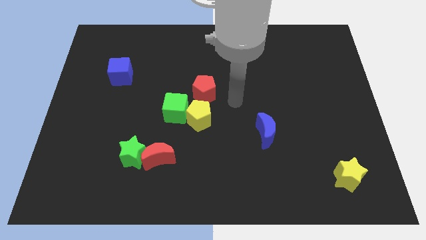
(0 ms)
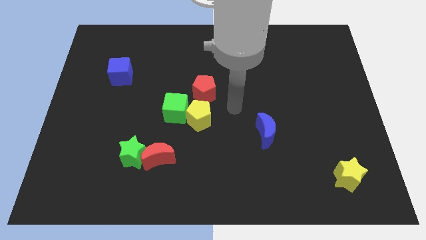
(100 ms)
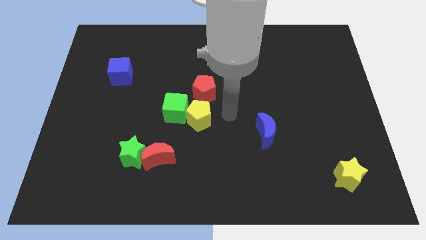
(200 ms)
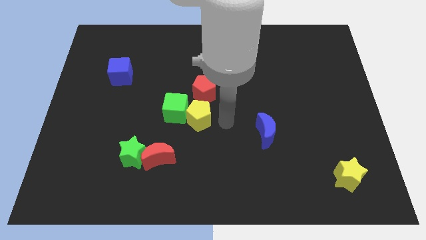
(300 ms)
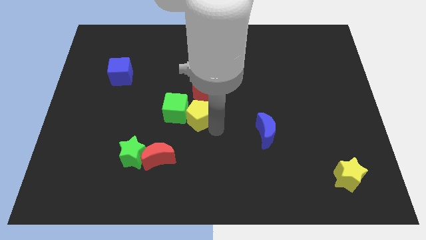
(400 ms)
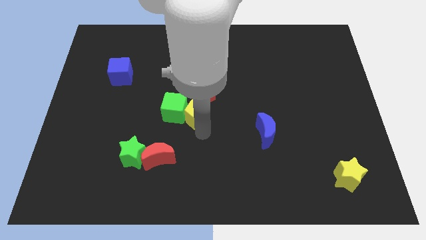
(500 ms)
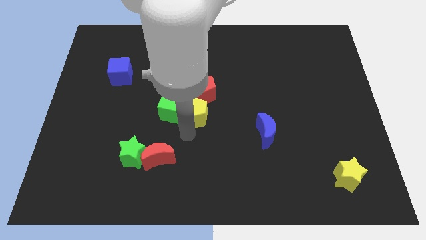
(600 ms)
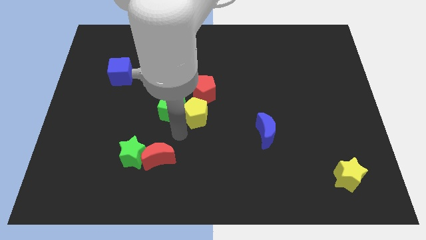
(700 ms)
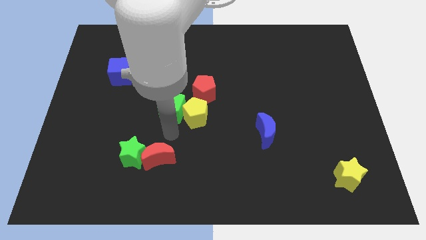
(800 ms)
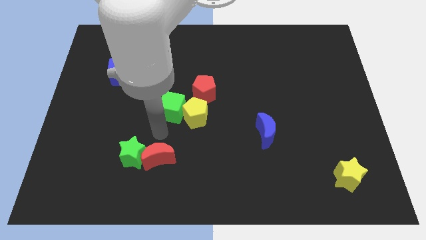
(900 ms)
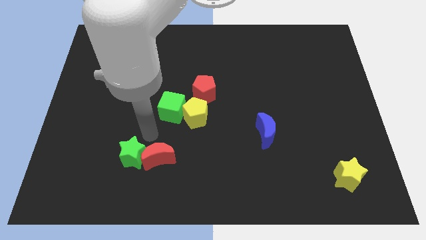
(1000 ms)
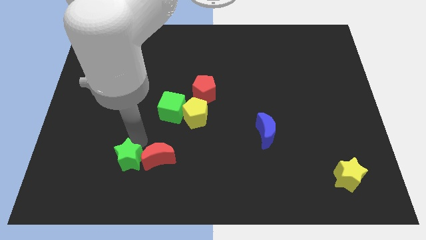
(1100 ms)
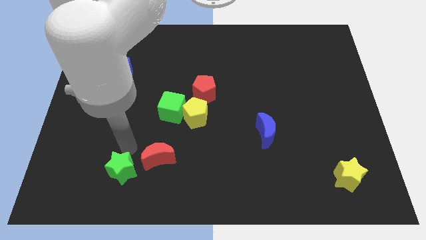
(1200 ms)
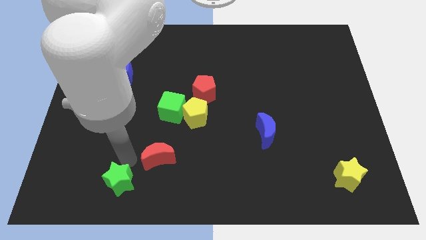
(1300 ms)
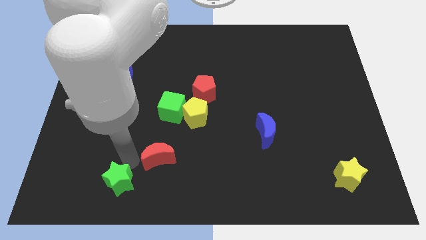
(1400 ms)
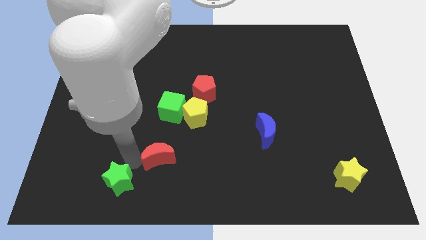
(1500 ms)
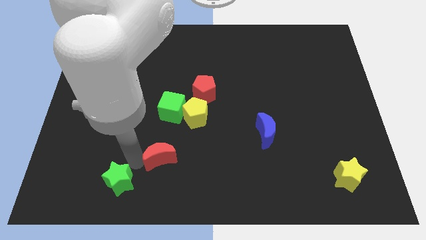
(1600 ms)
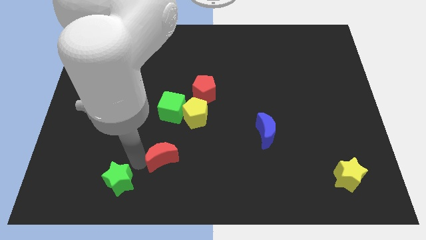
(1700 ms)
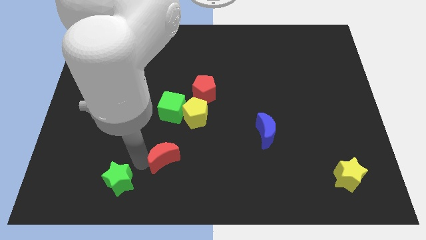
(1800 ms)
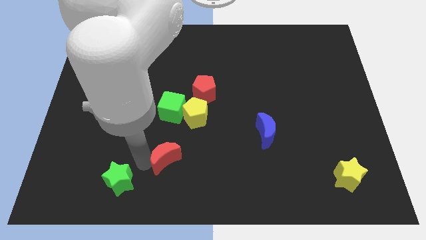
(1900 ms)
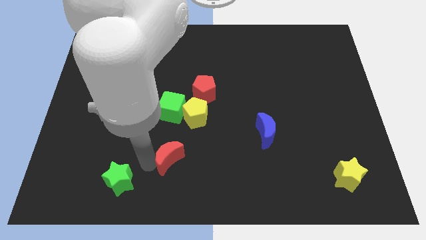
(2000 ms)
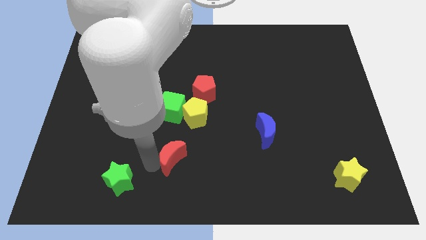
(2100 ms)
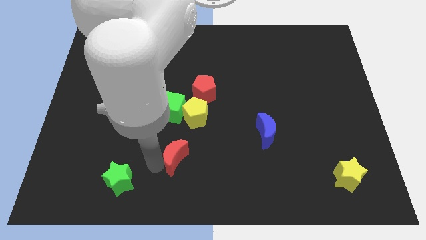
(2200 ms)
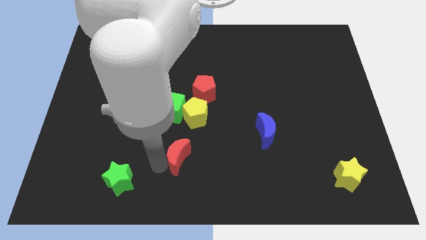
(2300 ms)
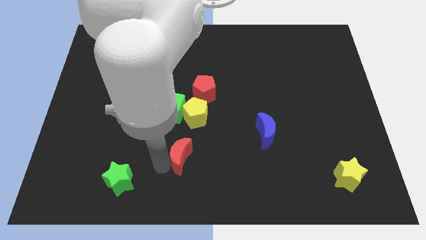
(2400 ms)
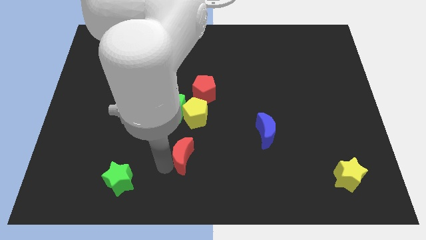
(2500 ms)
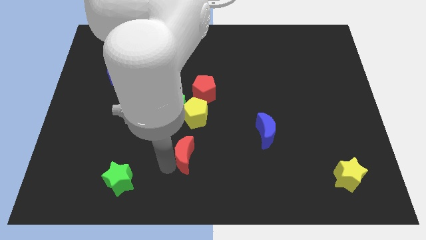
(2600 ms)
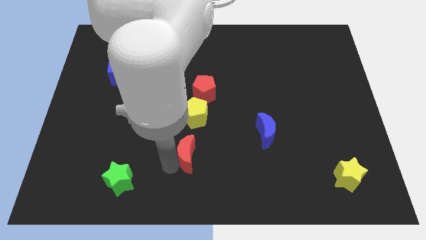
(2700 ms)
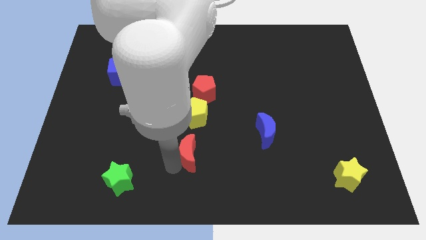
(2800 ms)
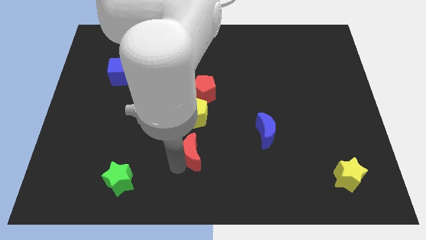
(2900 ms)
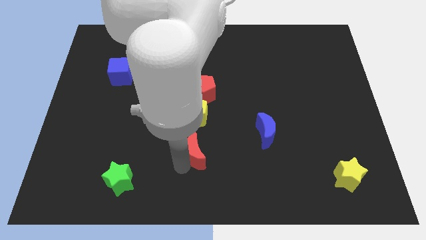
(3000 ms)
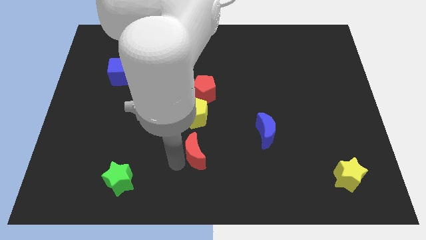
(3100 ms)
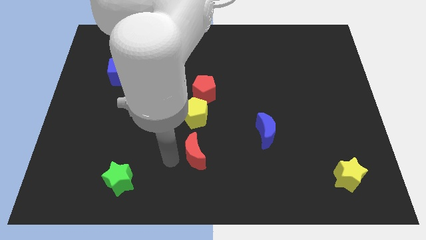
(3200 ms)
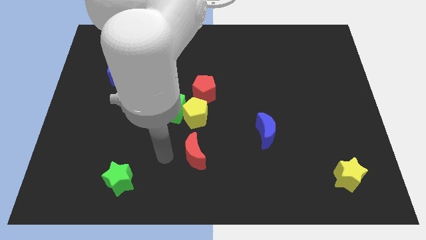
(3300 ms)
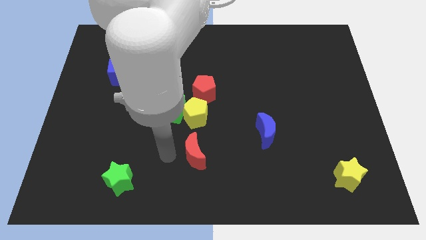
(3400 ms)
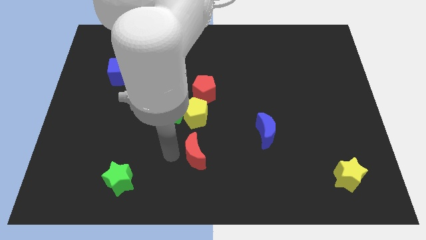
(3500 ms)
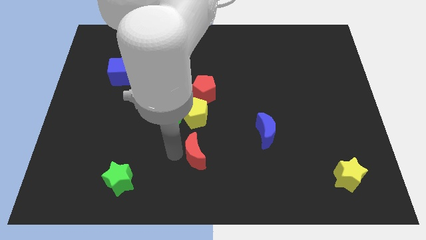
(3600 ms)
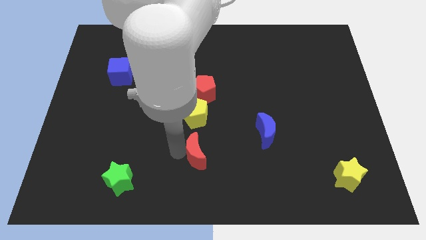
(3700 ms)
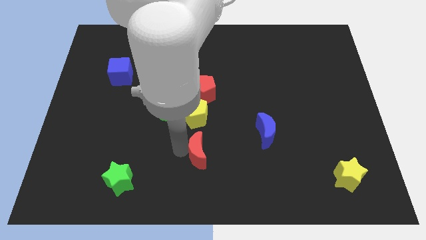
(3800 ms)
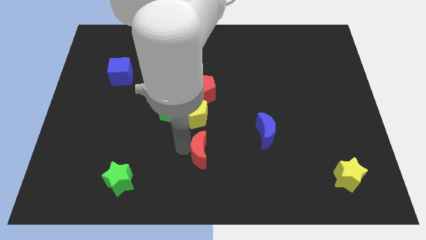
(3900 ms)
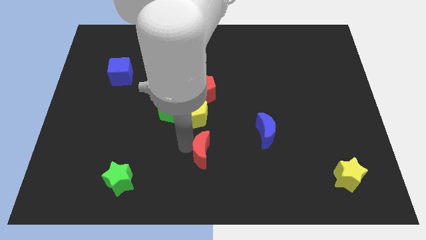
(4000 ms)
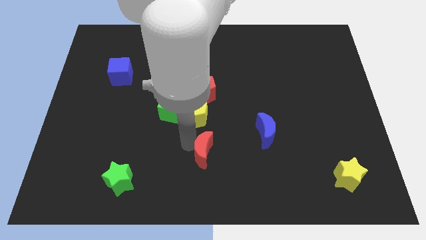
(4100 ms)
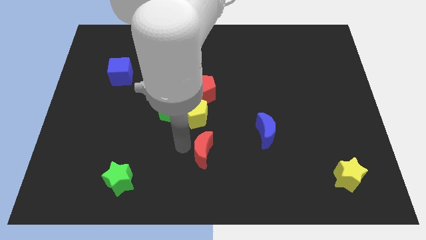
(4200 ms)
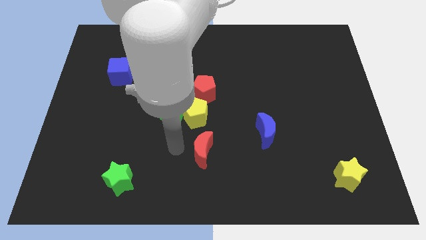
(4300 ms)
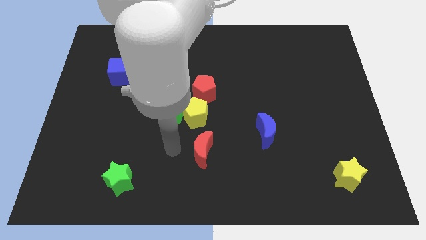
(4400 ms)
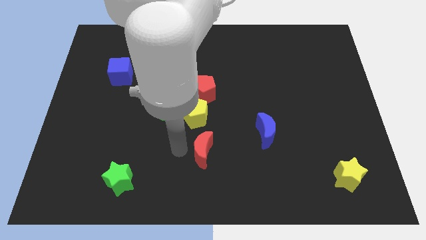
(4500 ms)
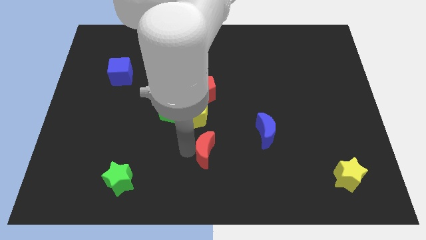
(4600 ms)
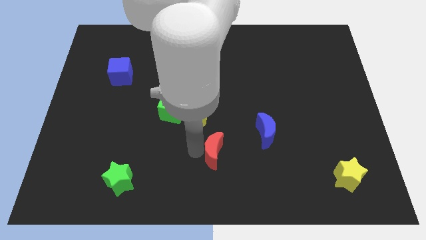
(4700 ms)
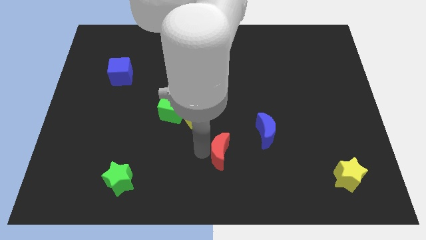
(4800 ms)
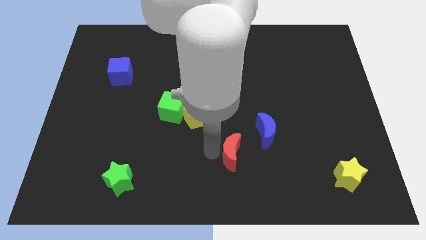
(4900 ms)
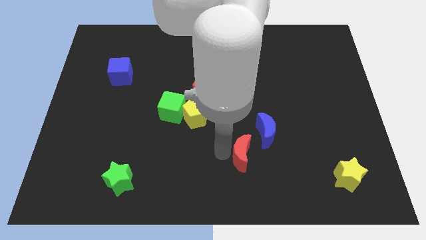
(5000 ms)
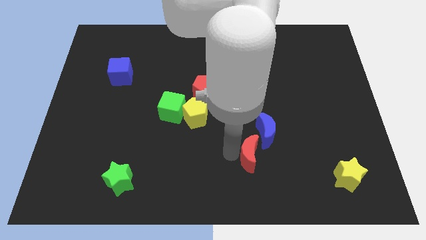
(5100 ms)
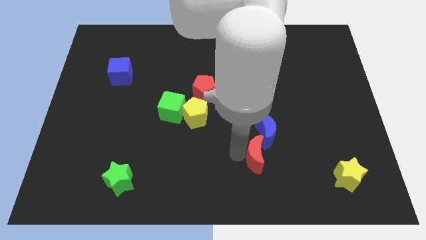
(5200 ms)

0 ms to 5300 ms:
push the red moon right

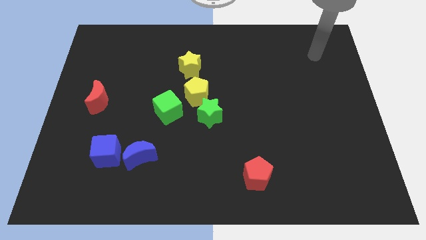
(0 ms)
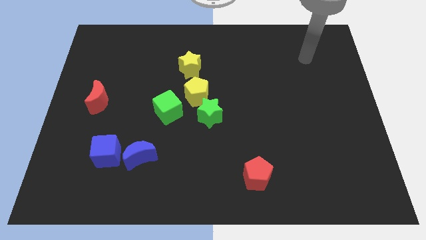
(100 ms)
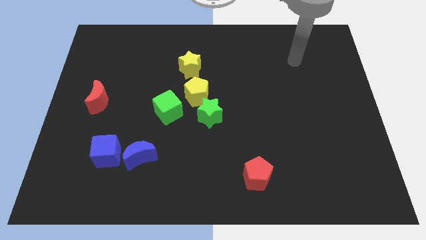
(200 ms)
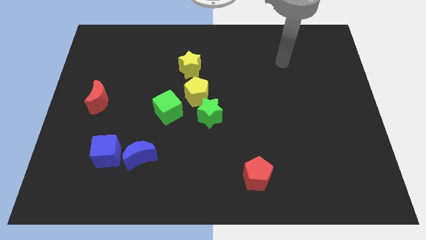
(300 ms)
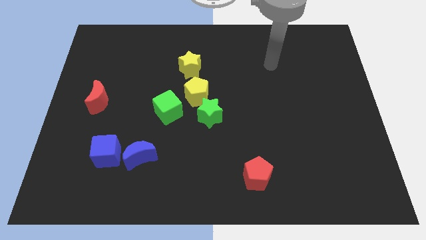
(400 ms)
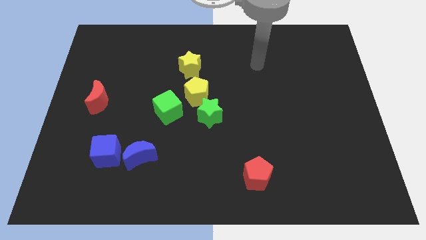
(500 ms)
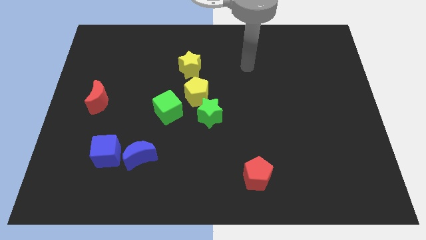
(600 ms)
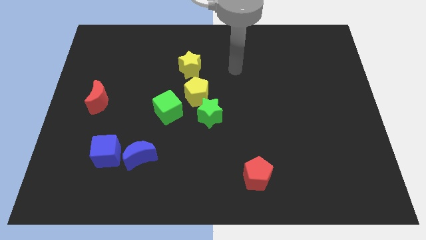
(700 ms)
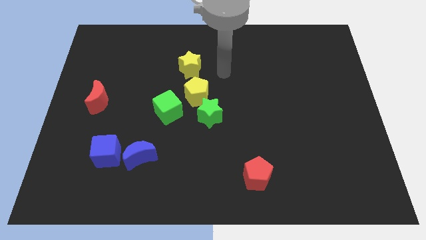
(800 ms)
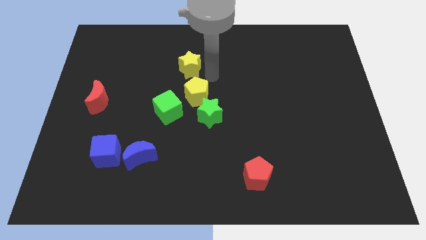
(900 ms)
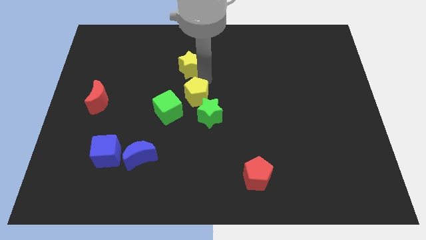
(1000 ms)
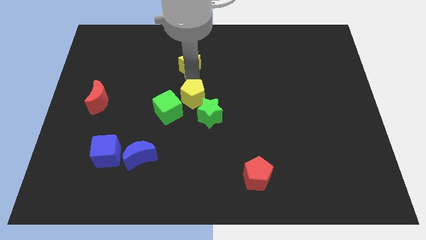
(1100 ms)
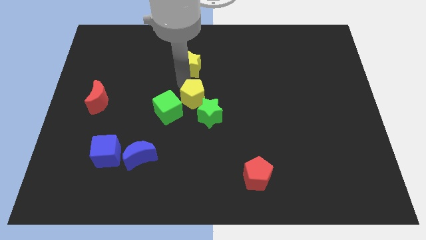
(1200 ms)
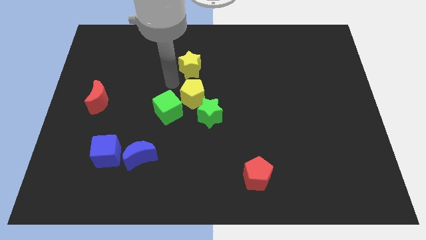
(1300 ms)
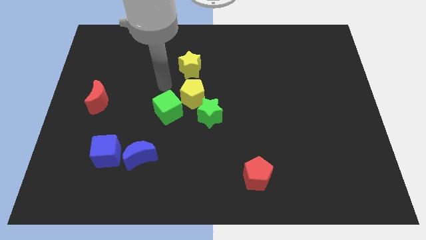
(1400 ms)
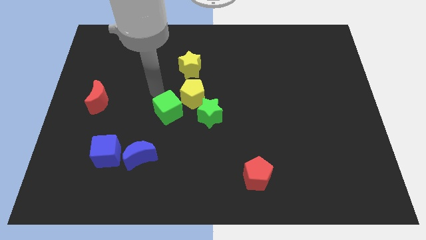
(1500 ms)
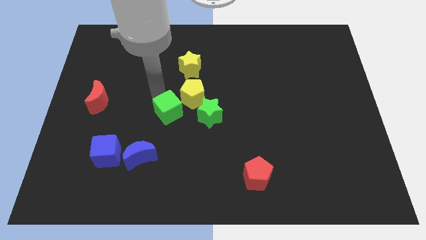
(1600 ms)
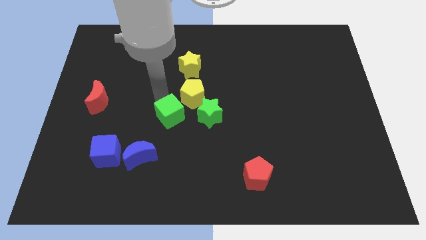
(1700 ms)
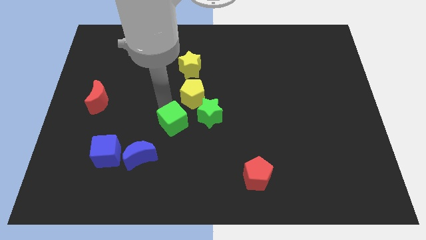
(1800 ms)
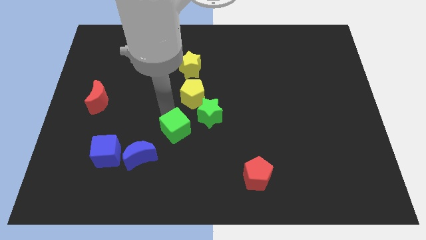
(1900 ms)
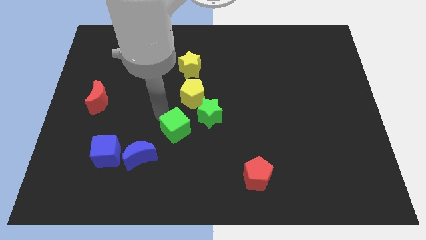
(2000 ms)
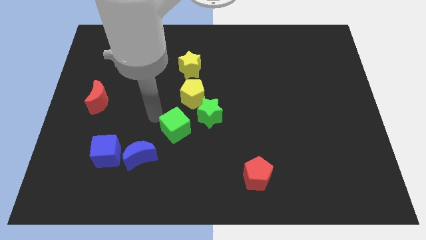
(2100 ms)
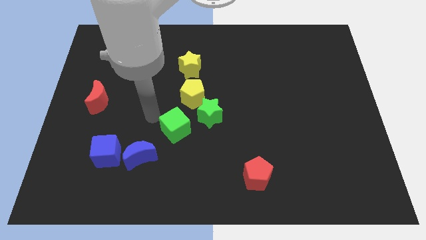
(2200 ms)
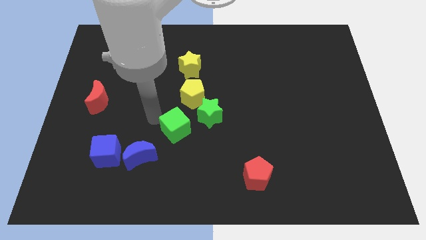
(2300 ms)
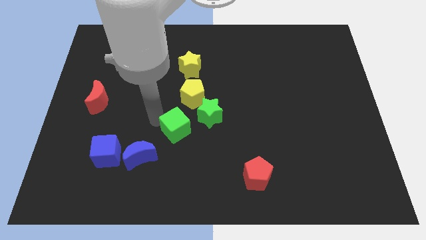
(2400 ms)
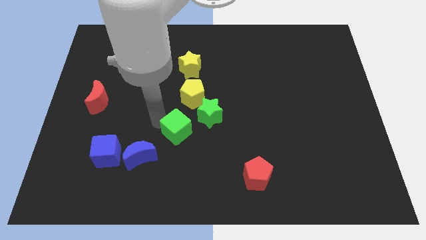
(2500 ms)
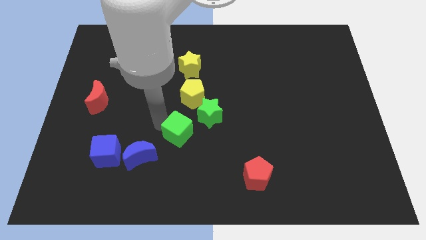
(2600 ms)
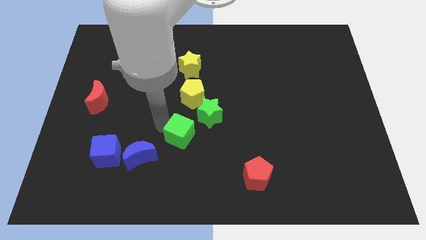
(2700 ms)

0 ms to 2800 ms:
slide the green cube somewhat down and then right

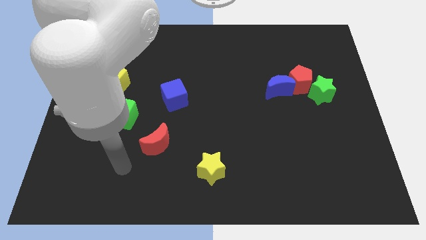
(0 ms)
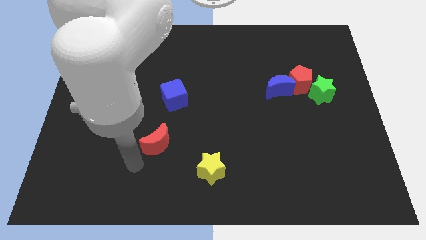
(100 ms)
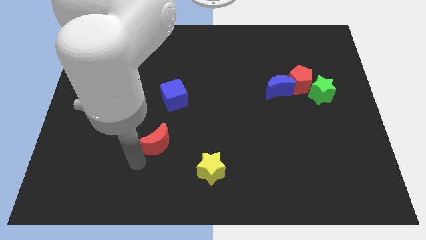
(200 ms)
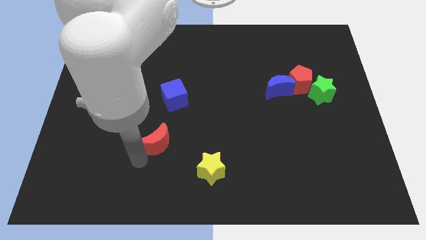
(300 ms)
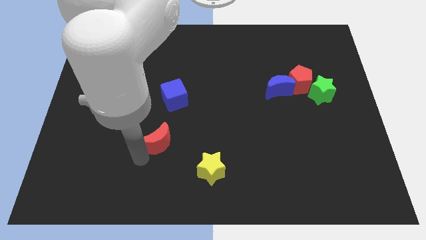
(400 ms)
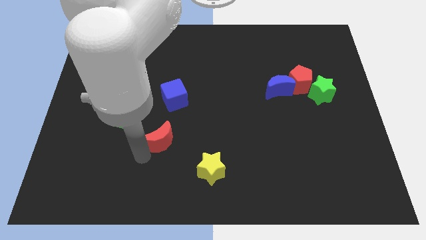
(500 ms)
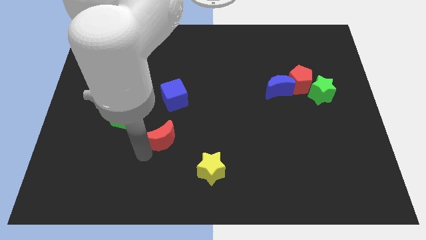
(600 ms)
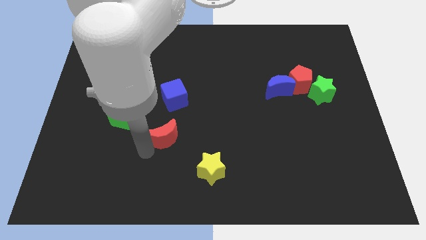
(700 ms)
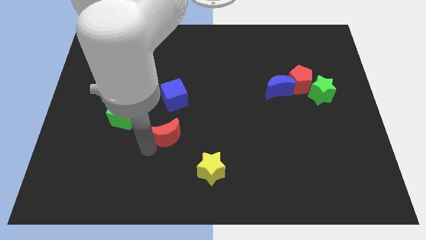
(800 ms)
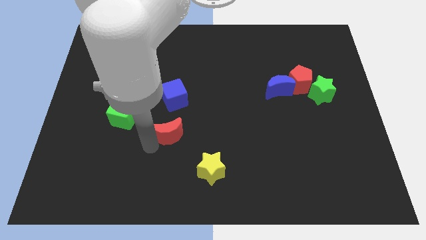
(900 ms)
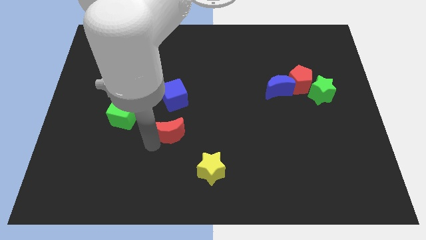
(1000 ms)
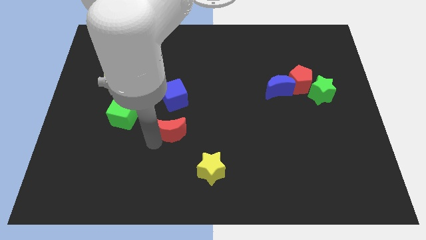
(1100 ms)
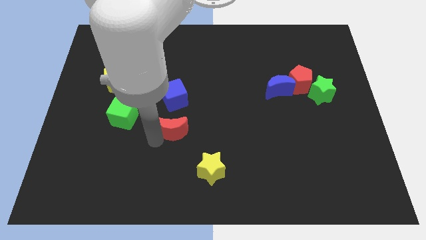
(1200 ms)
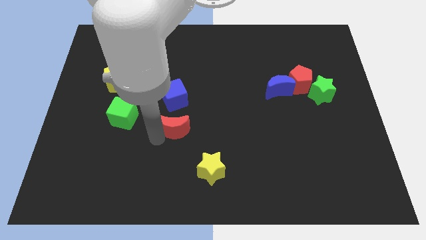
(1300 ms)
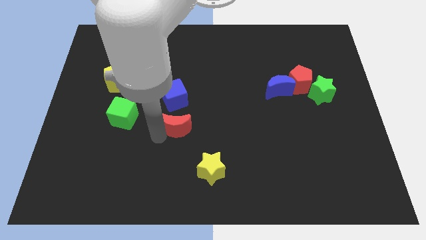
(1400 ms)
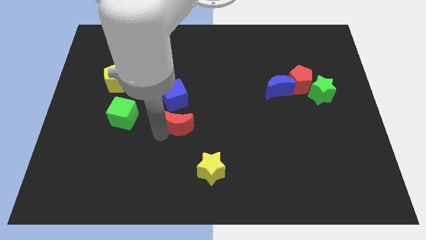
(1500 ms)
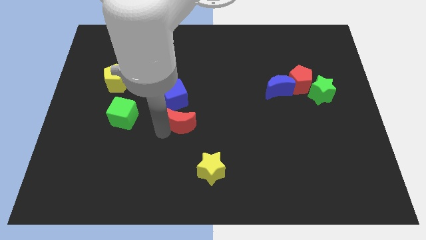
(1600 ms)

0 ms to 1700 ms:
push the red moon somewhat up and then right
